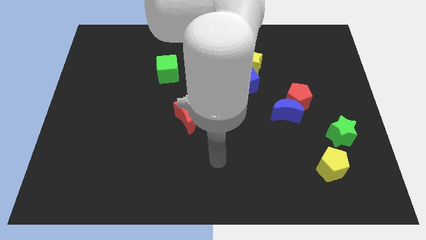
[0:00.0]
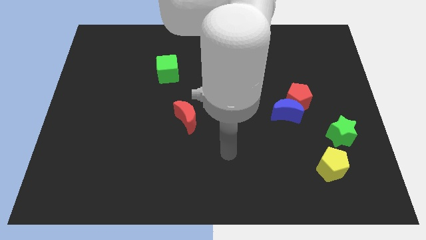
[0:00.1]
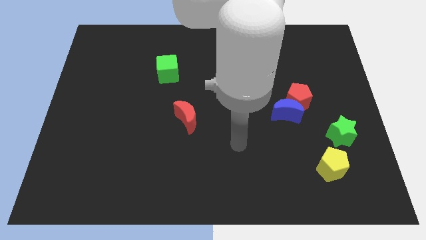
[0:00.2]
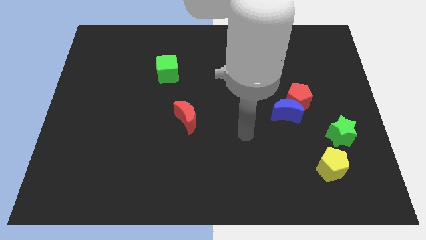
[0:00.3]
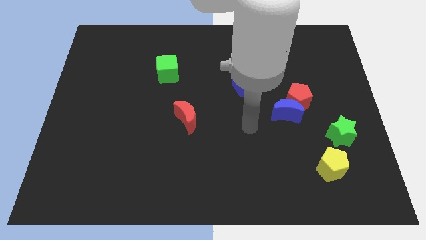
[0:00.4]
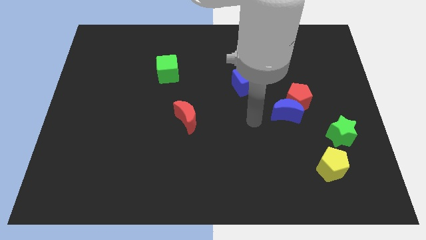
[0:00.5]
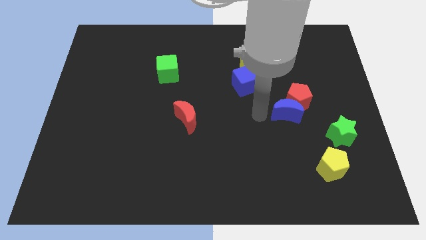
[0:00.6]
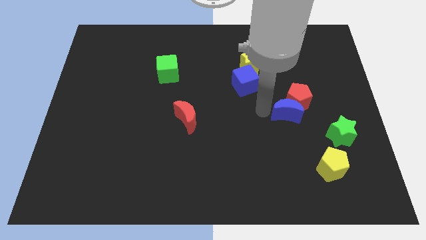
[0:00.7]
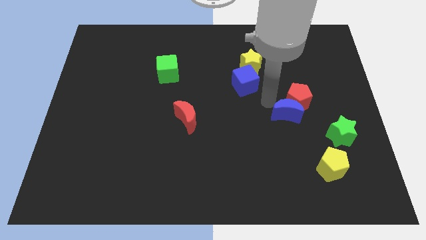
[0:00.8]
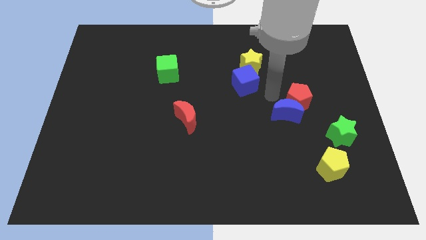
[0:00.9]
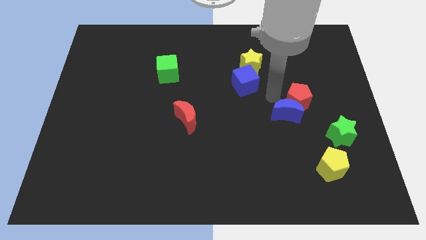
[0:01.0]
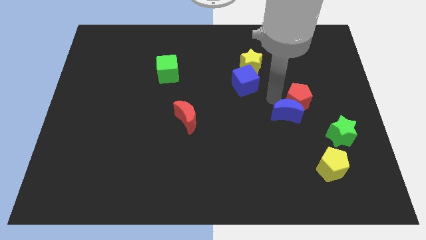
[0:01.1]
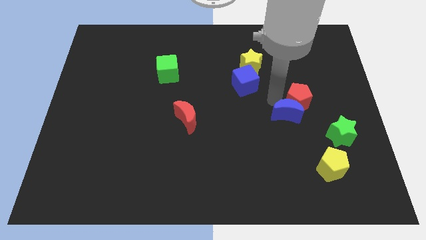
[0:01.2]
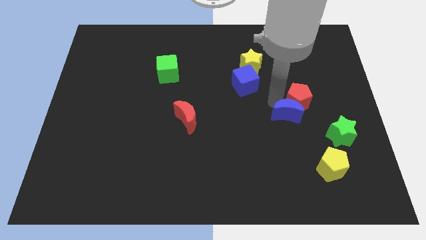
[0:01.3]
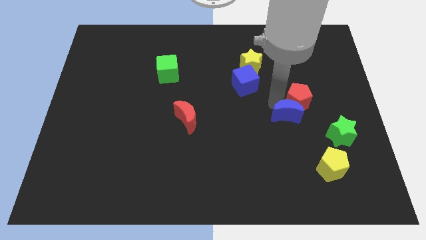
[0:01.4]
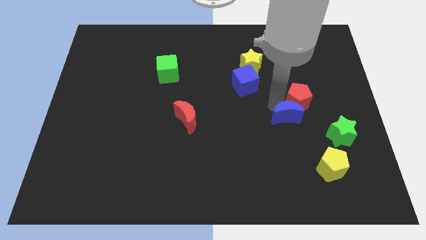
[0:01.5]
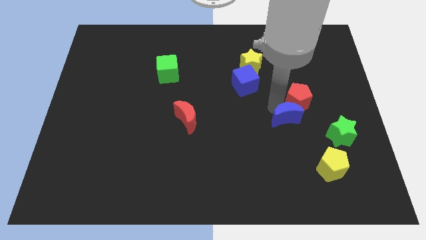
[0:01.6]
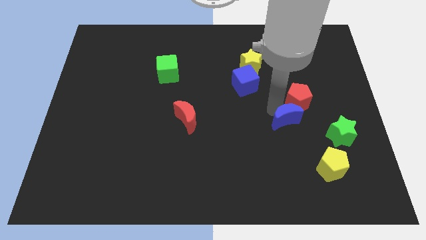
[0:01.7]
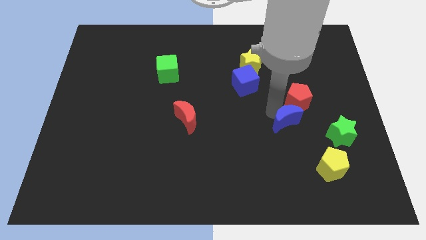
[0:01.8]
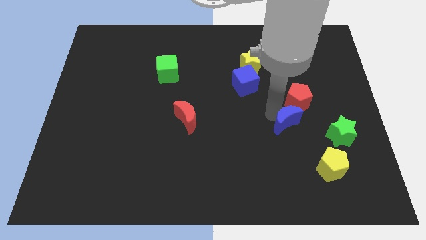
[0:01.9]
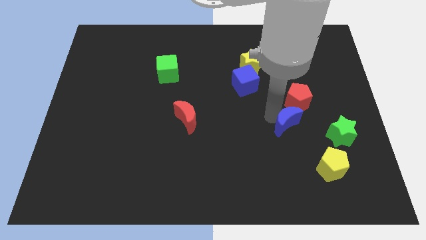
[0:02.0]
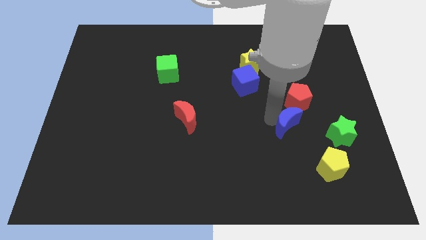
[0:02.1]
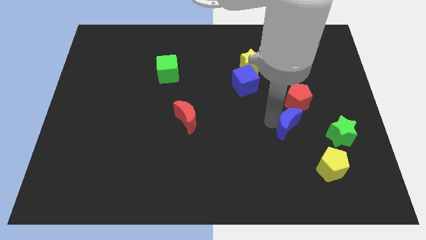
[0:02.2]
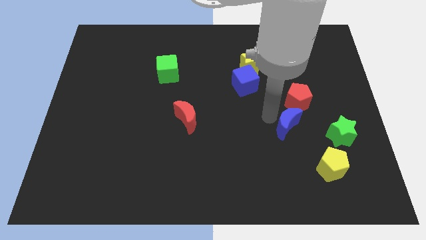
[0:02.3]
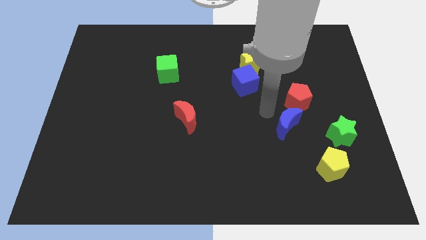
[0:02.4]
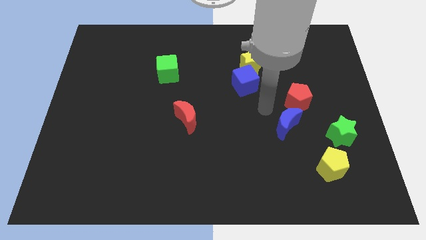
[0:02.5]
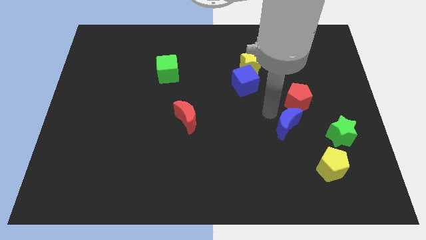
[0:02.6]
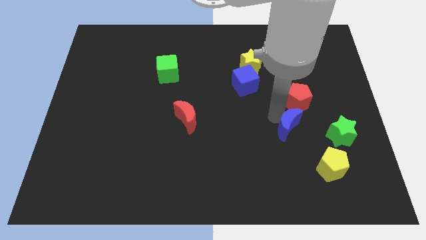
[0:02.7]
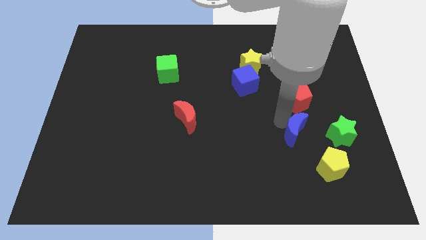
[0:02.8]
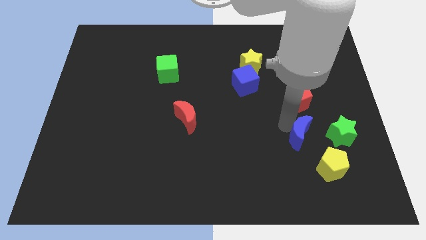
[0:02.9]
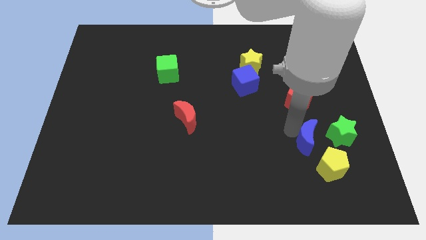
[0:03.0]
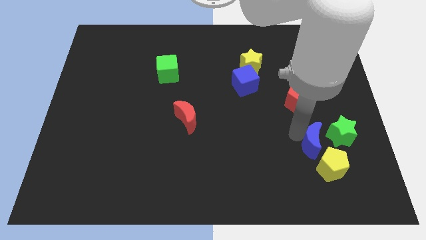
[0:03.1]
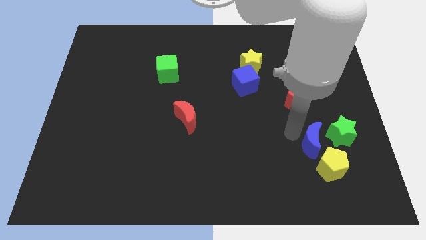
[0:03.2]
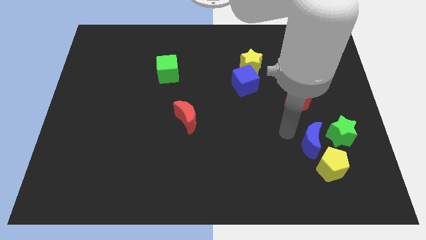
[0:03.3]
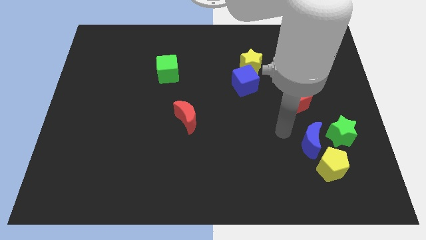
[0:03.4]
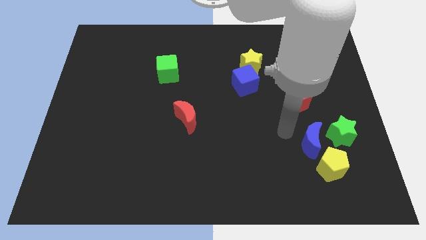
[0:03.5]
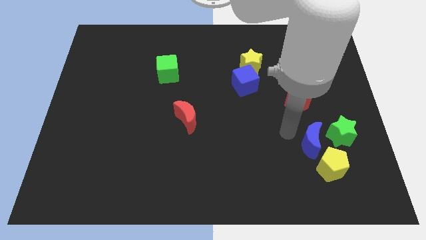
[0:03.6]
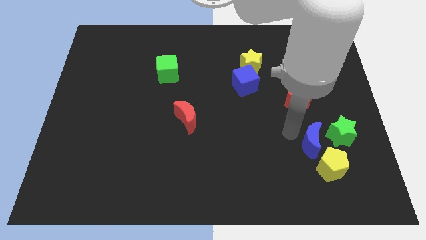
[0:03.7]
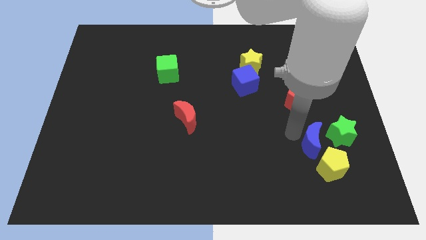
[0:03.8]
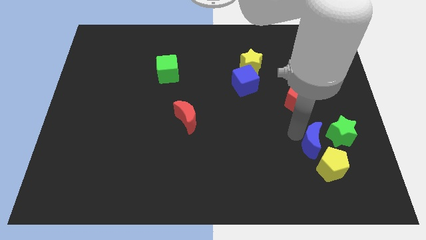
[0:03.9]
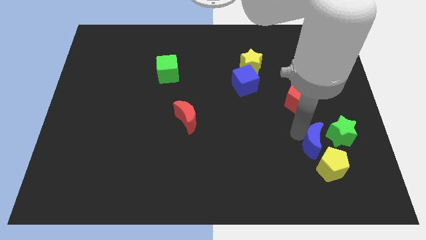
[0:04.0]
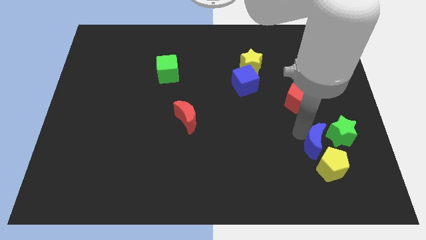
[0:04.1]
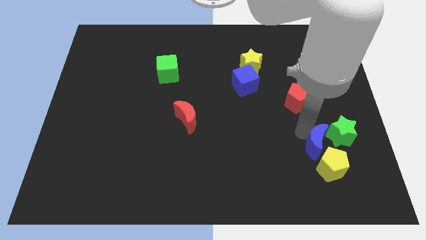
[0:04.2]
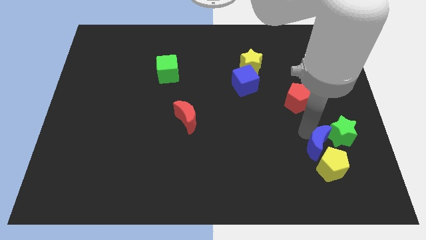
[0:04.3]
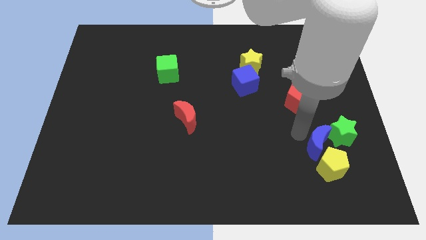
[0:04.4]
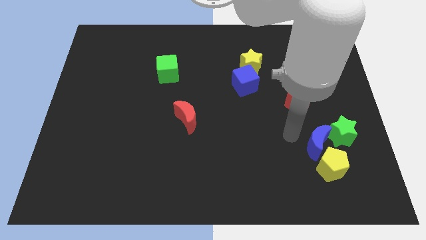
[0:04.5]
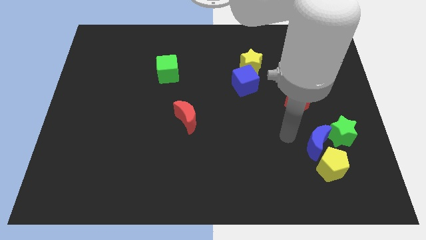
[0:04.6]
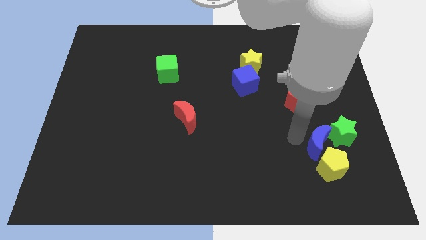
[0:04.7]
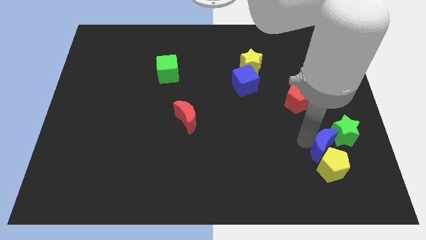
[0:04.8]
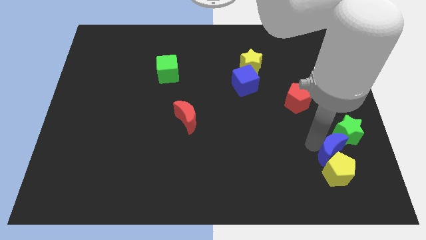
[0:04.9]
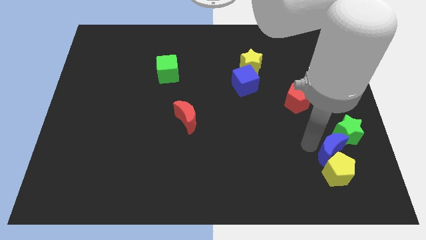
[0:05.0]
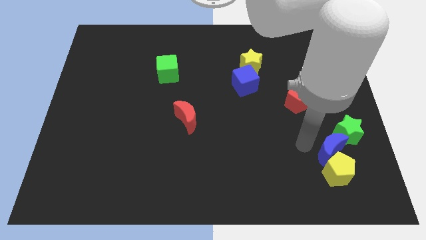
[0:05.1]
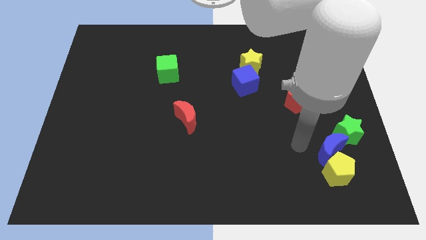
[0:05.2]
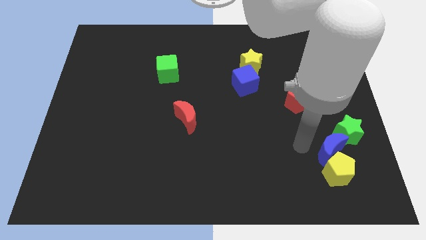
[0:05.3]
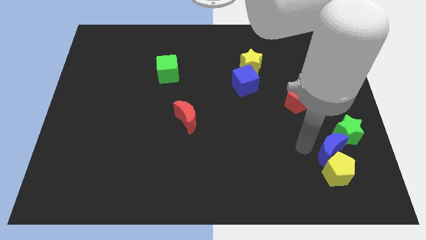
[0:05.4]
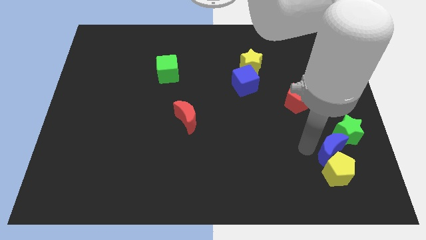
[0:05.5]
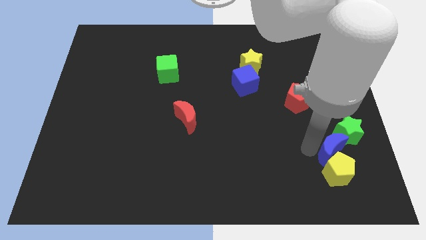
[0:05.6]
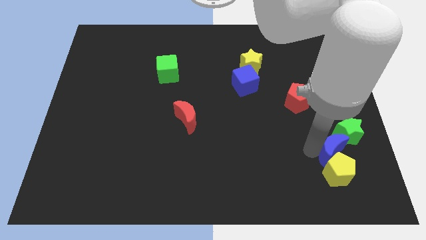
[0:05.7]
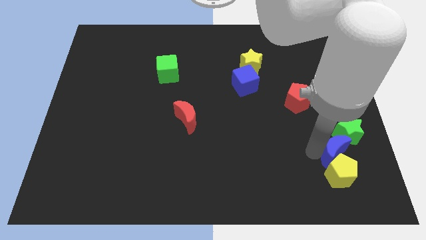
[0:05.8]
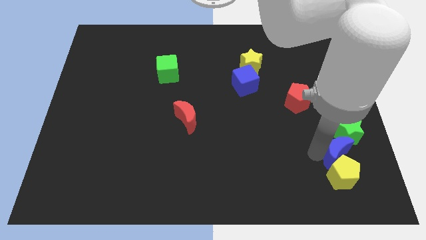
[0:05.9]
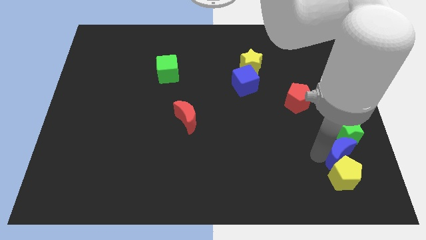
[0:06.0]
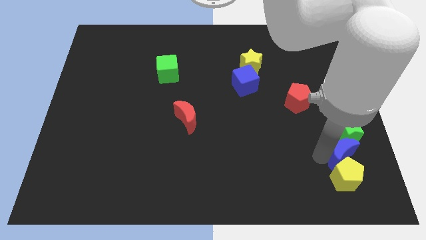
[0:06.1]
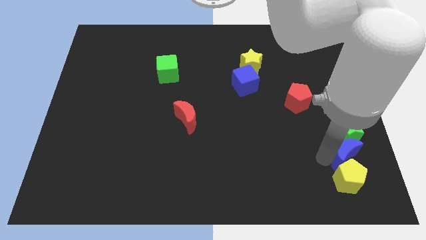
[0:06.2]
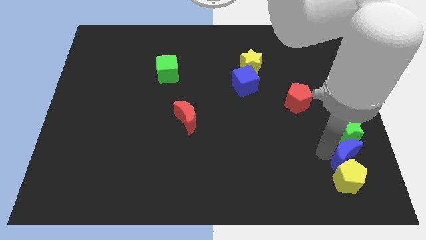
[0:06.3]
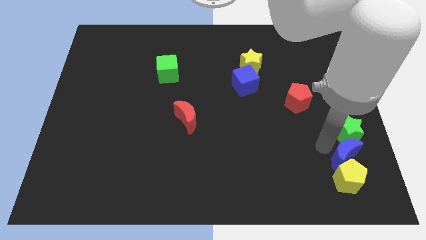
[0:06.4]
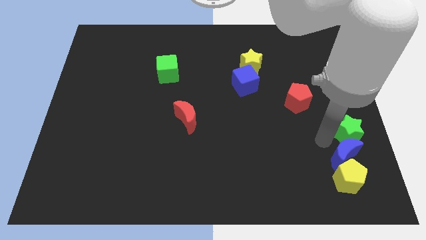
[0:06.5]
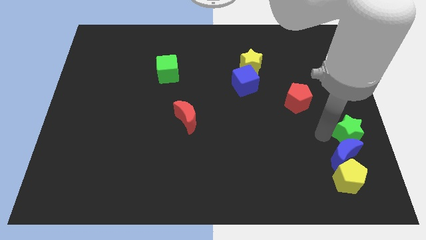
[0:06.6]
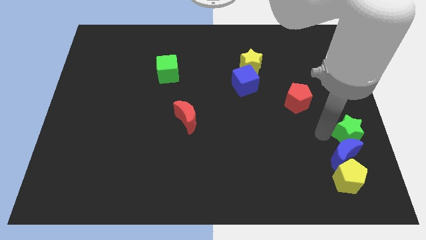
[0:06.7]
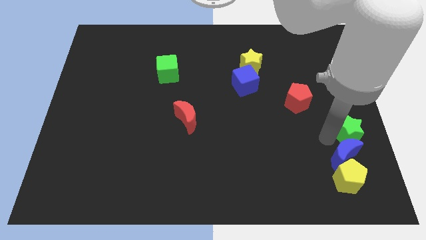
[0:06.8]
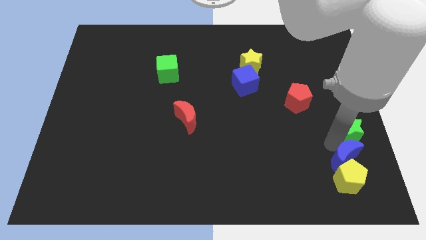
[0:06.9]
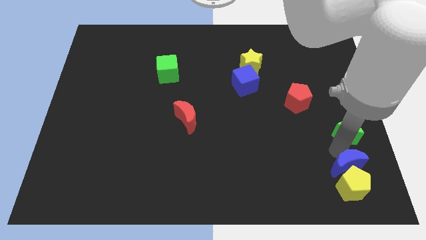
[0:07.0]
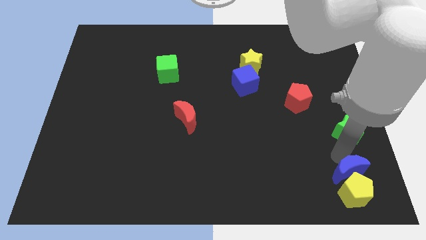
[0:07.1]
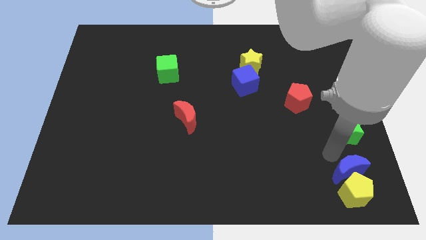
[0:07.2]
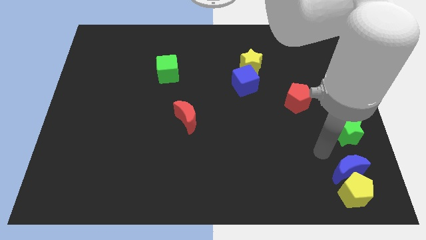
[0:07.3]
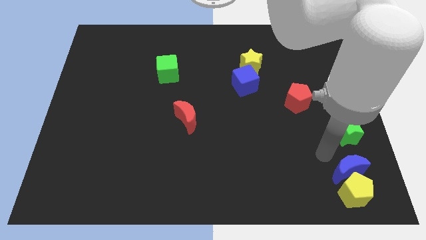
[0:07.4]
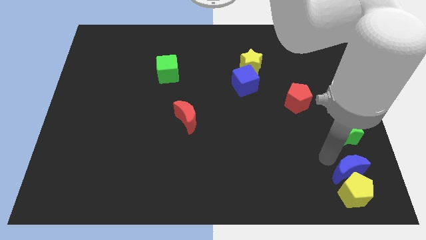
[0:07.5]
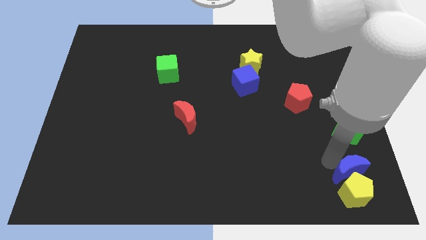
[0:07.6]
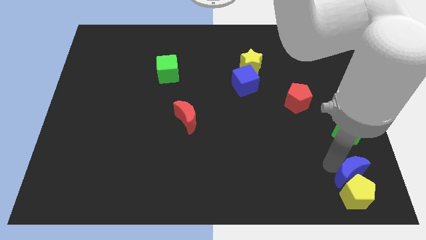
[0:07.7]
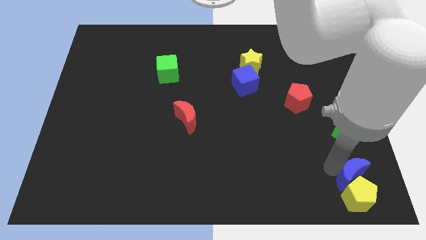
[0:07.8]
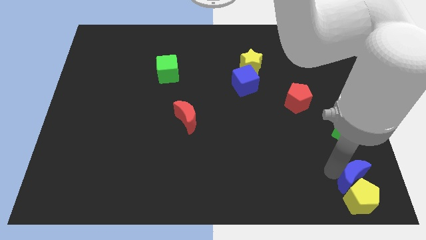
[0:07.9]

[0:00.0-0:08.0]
put the blue moon to the lower right corner
